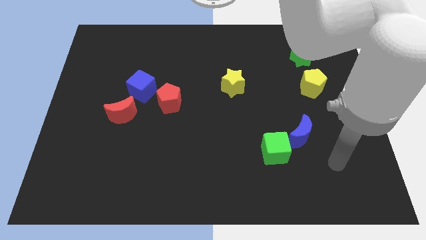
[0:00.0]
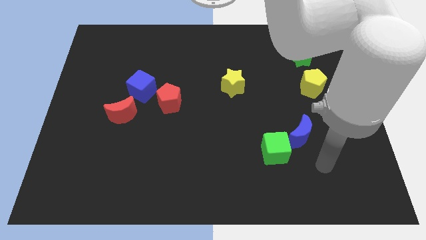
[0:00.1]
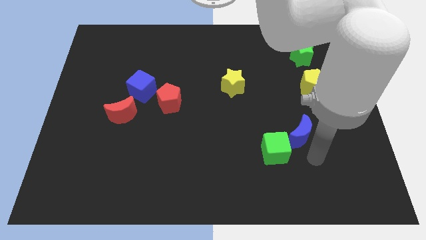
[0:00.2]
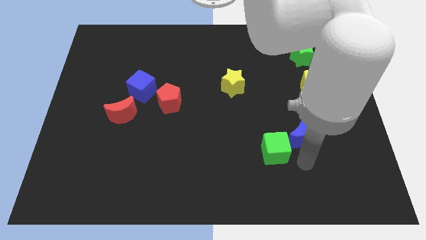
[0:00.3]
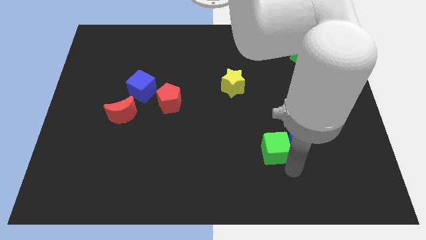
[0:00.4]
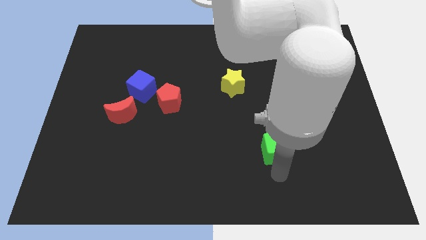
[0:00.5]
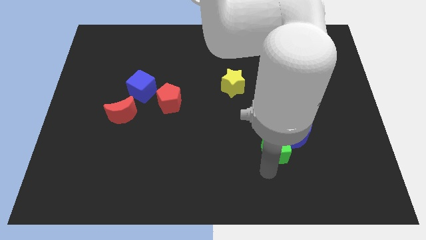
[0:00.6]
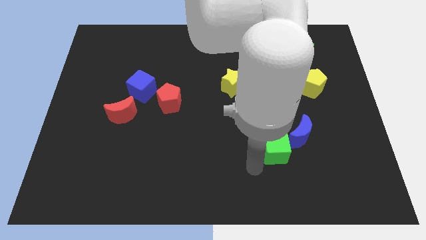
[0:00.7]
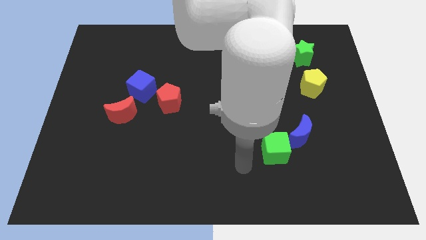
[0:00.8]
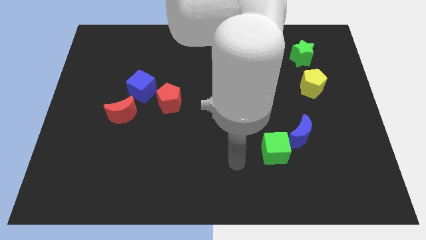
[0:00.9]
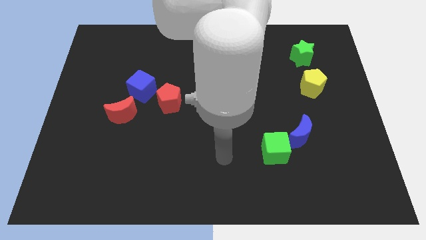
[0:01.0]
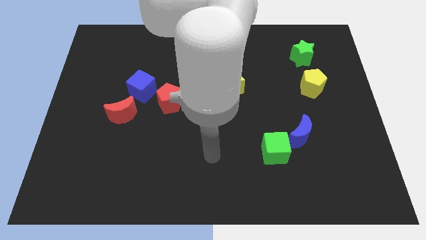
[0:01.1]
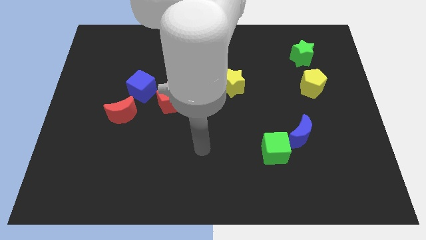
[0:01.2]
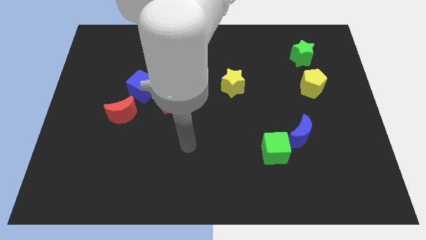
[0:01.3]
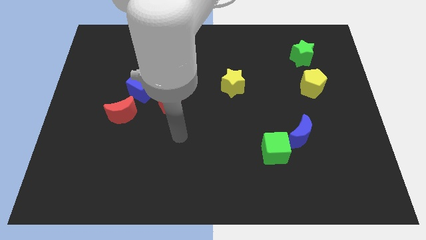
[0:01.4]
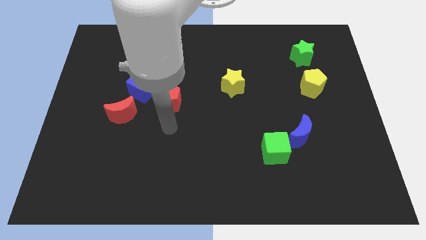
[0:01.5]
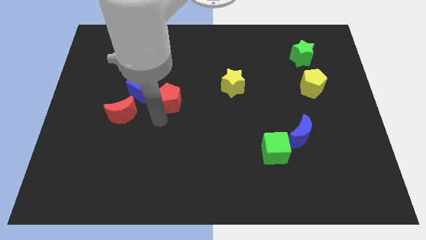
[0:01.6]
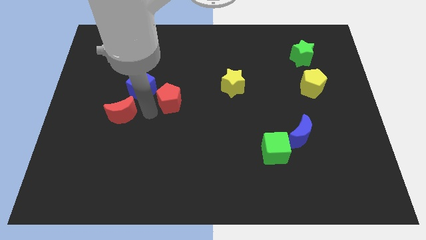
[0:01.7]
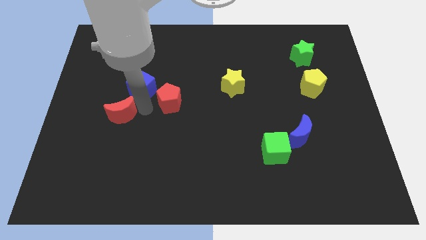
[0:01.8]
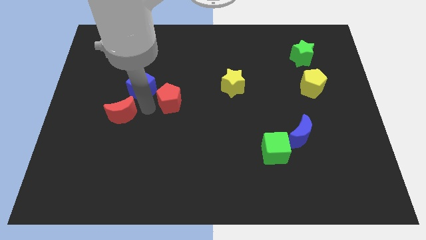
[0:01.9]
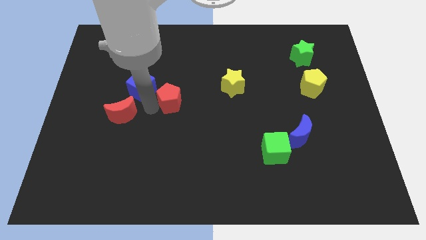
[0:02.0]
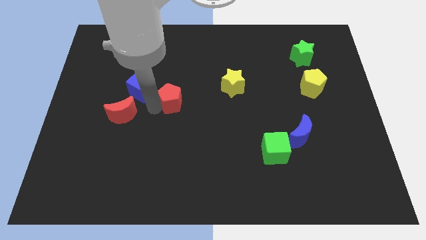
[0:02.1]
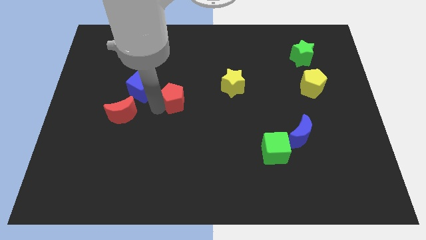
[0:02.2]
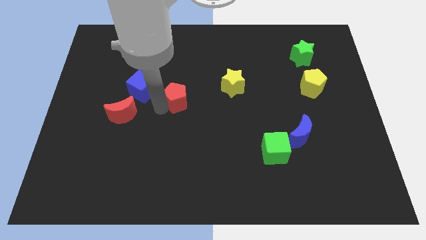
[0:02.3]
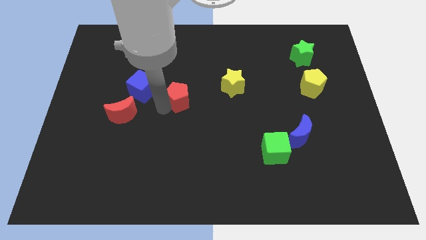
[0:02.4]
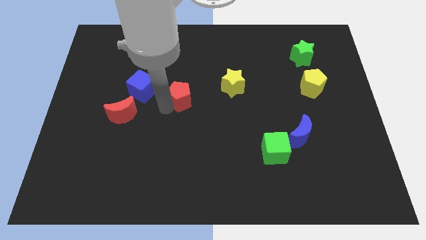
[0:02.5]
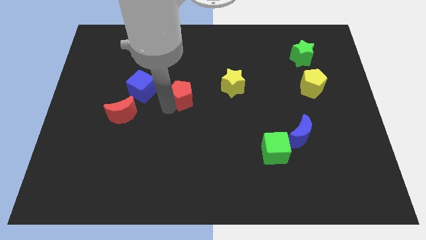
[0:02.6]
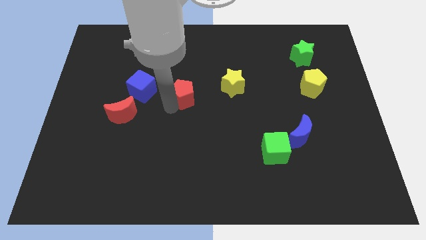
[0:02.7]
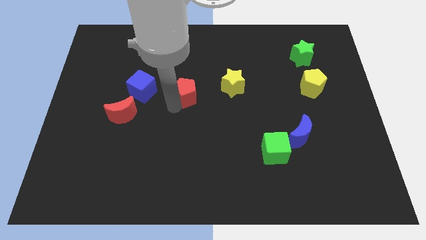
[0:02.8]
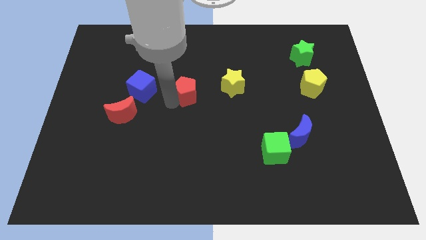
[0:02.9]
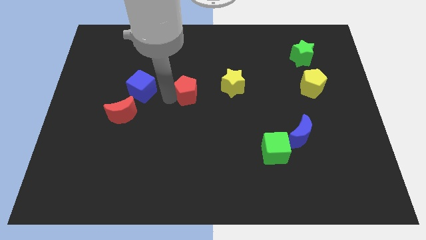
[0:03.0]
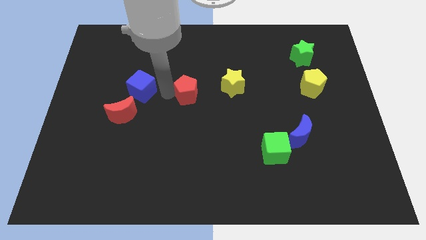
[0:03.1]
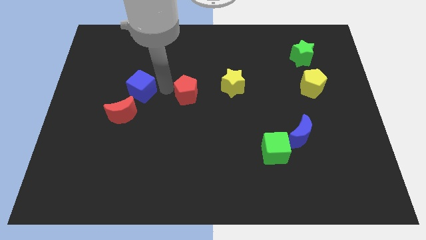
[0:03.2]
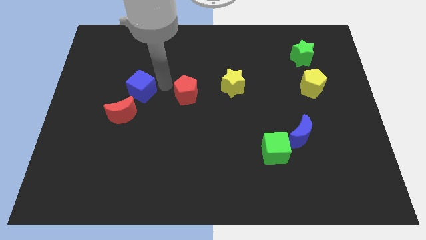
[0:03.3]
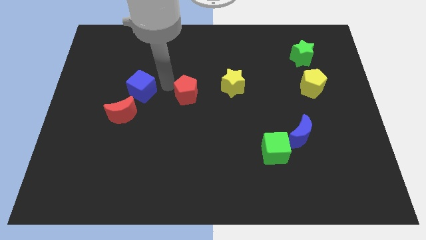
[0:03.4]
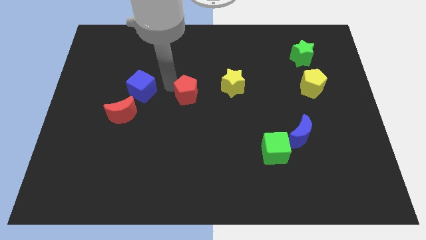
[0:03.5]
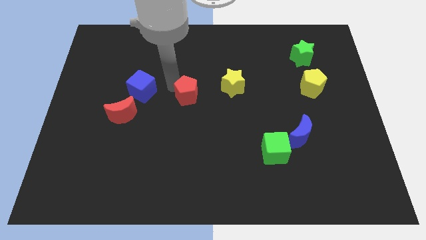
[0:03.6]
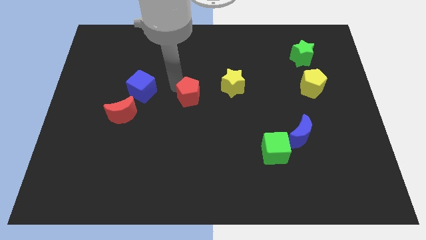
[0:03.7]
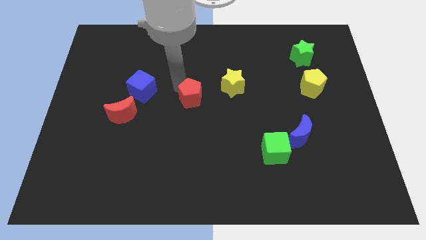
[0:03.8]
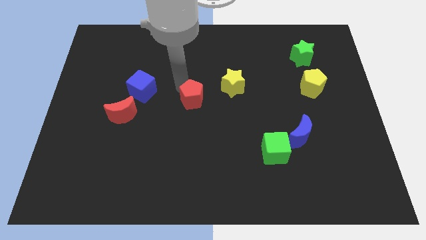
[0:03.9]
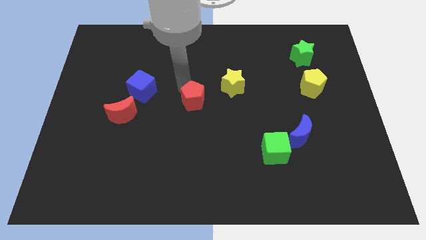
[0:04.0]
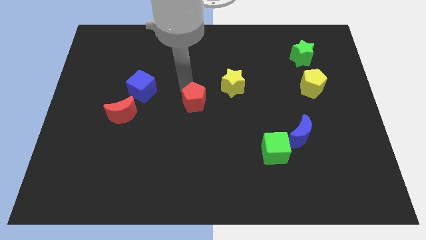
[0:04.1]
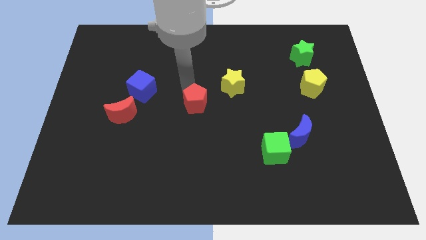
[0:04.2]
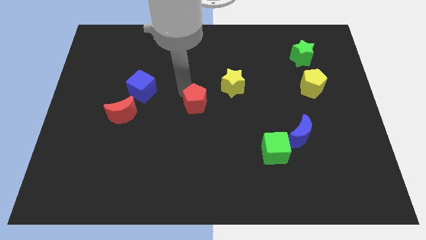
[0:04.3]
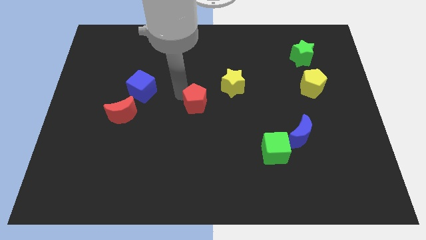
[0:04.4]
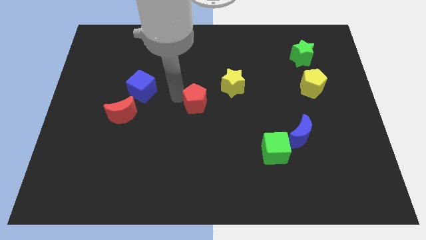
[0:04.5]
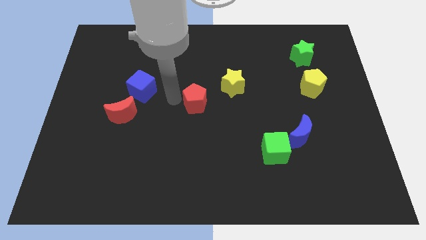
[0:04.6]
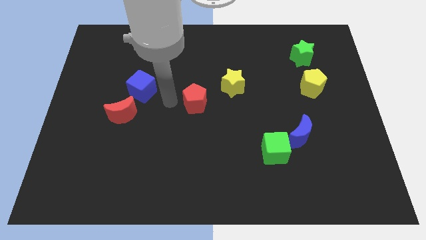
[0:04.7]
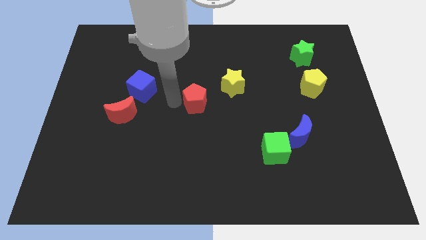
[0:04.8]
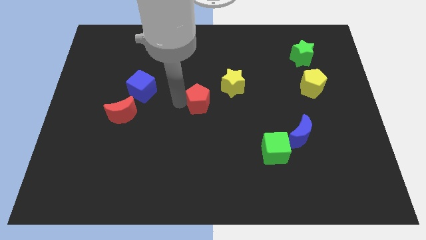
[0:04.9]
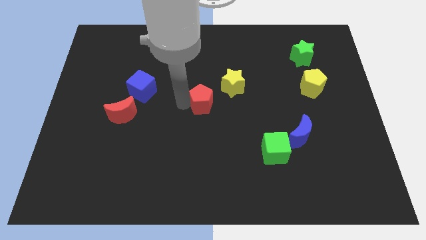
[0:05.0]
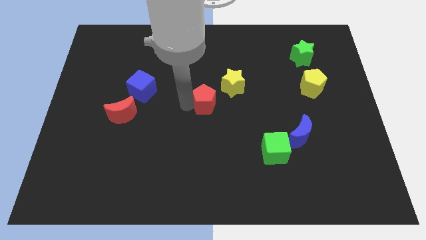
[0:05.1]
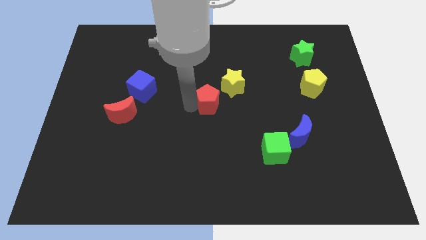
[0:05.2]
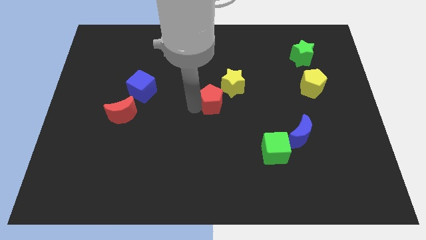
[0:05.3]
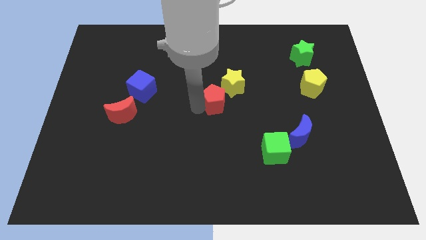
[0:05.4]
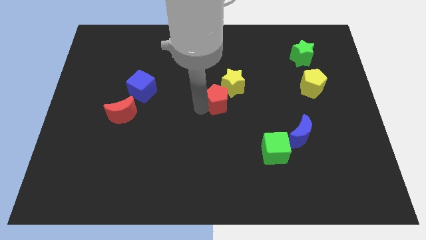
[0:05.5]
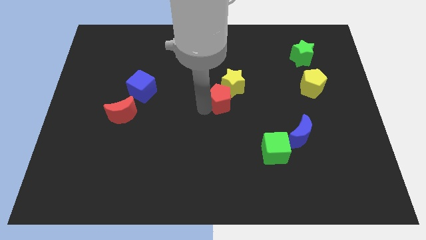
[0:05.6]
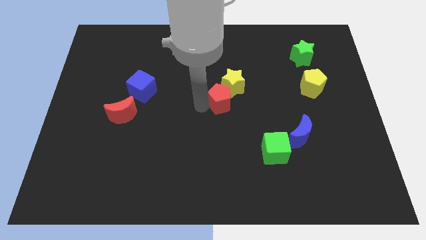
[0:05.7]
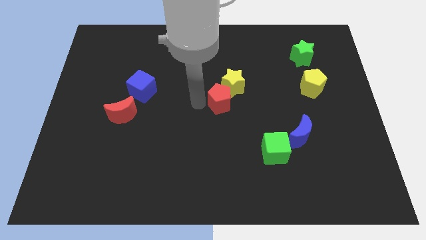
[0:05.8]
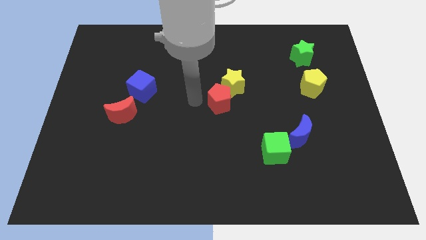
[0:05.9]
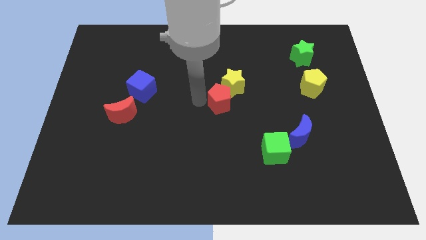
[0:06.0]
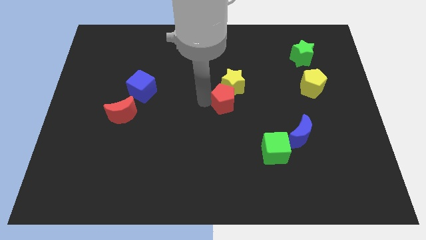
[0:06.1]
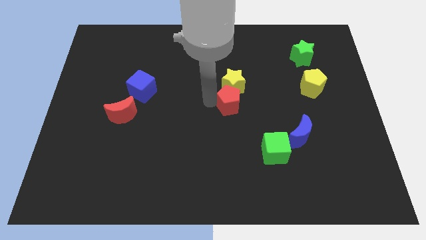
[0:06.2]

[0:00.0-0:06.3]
push the red pentagon diagonally down and to the right of the yellow star
